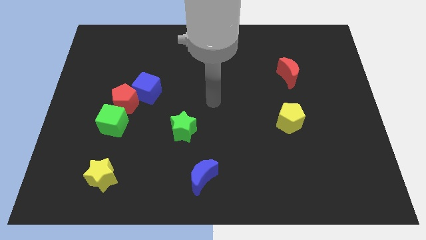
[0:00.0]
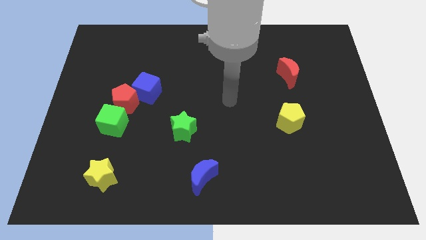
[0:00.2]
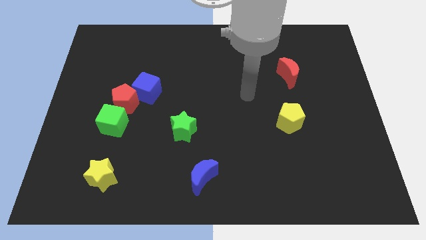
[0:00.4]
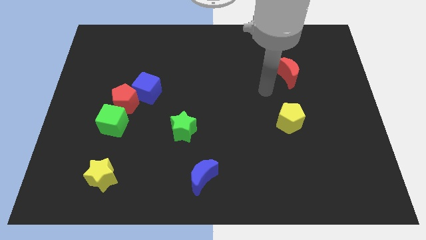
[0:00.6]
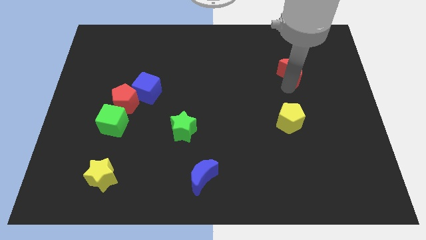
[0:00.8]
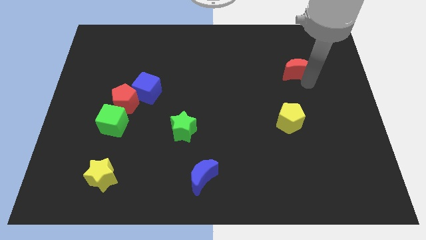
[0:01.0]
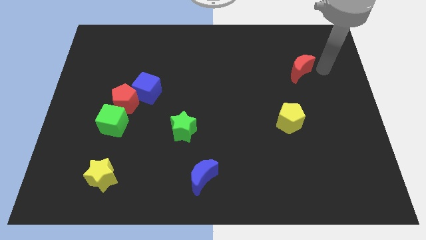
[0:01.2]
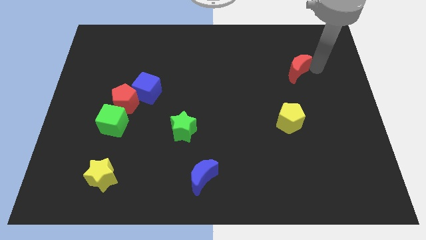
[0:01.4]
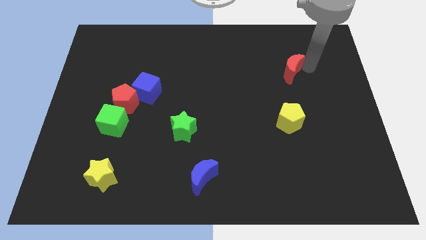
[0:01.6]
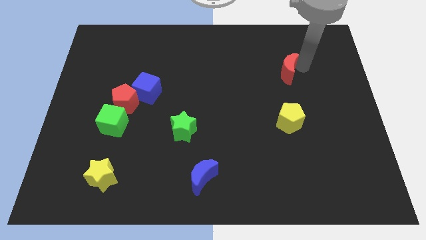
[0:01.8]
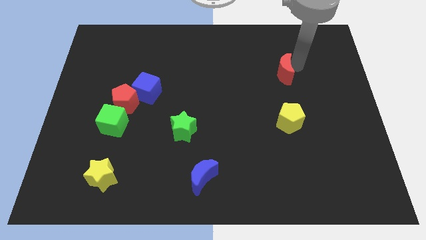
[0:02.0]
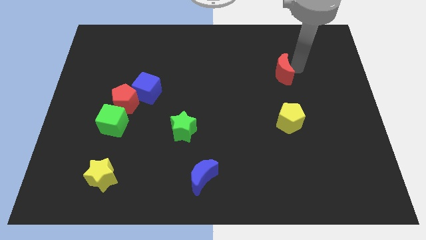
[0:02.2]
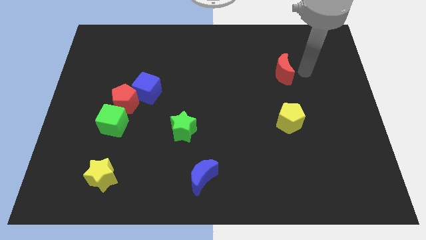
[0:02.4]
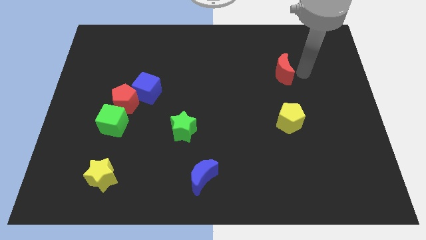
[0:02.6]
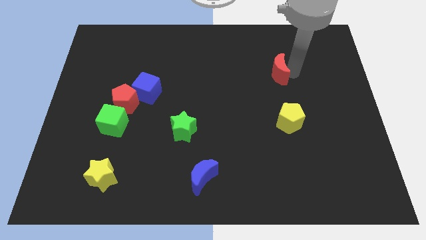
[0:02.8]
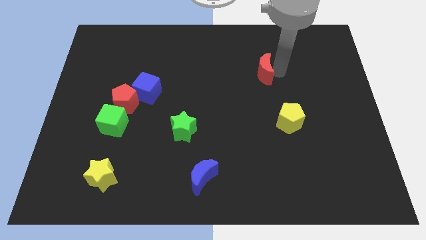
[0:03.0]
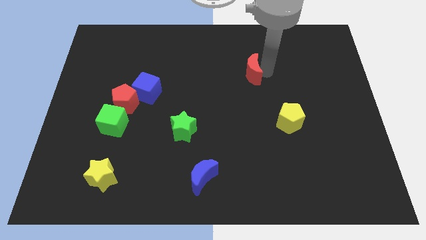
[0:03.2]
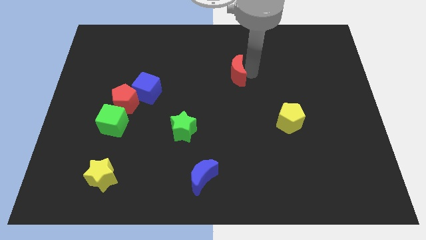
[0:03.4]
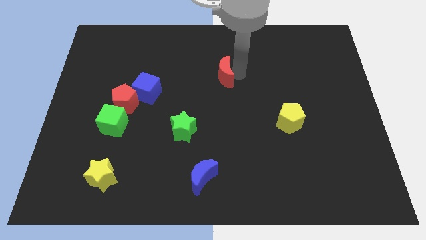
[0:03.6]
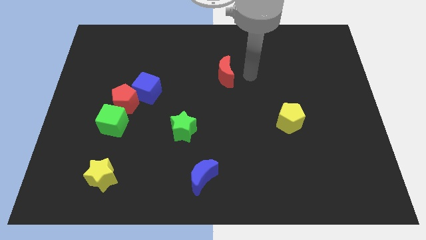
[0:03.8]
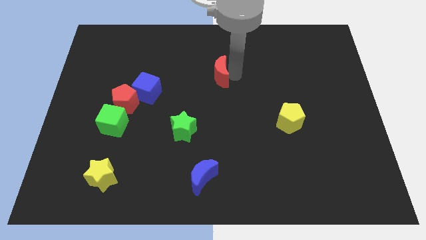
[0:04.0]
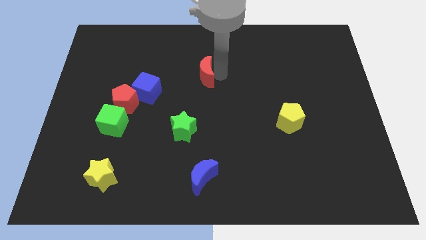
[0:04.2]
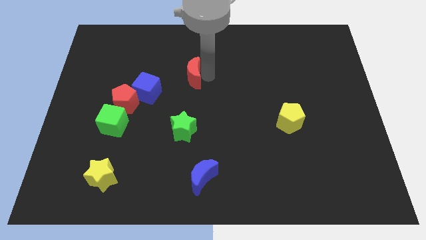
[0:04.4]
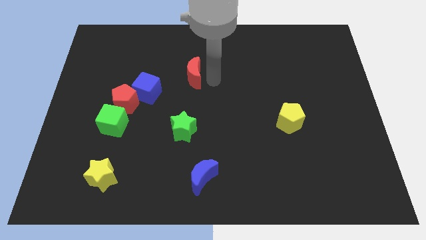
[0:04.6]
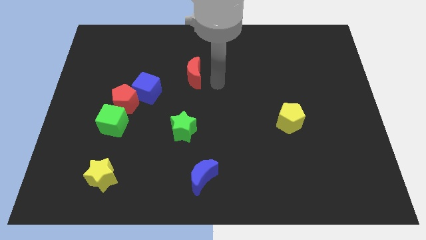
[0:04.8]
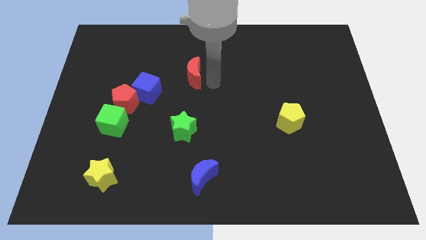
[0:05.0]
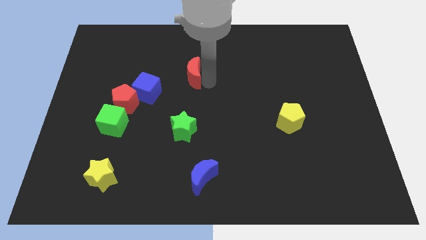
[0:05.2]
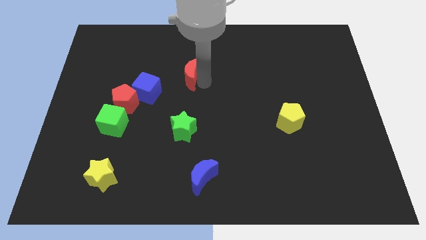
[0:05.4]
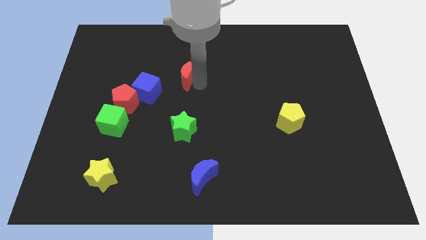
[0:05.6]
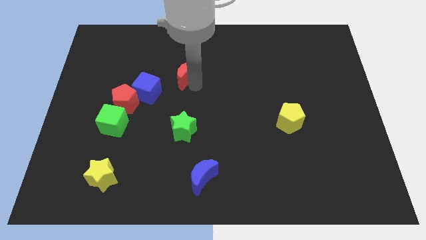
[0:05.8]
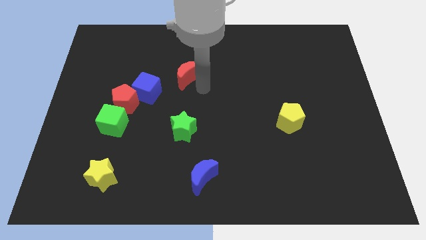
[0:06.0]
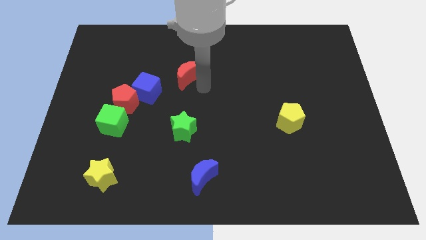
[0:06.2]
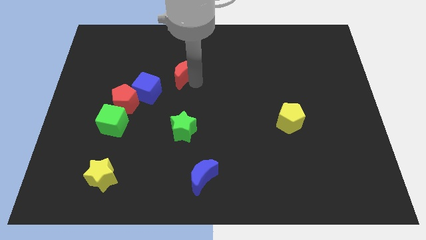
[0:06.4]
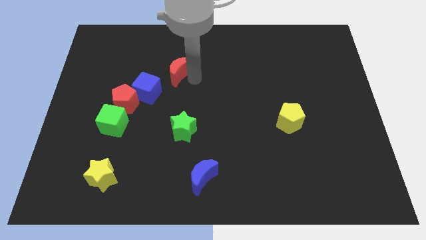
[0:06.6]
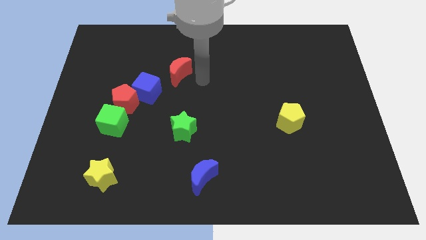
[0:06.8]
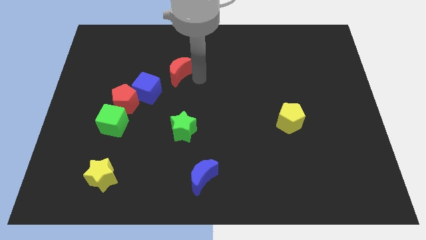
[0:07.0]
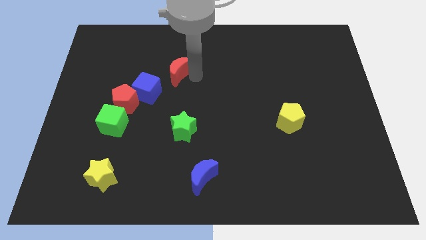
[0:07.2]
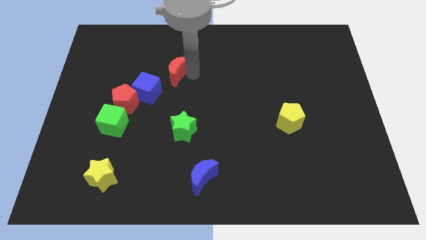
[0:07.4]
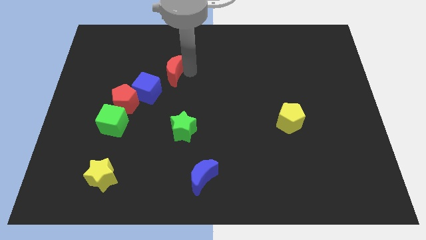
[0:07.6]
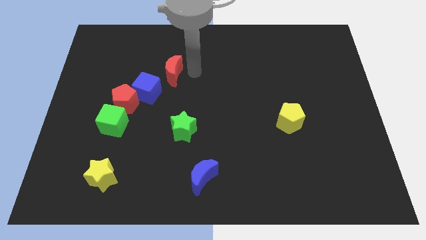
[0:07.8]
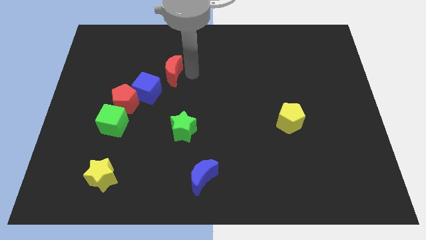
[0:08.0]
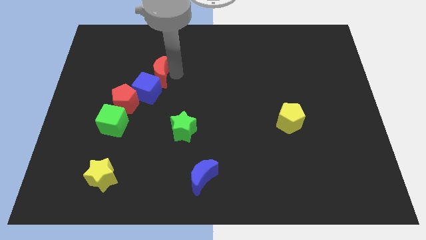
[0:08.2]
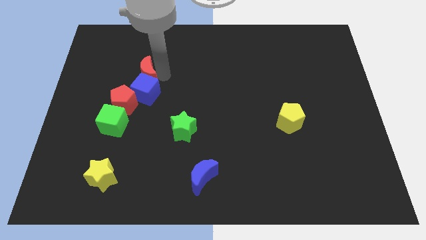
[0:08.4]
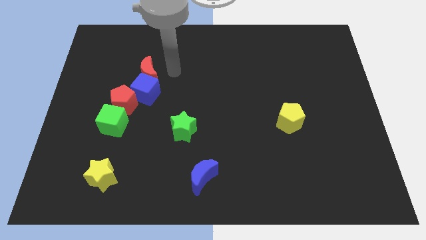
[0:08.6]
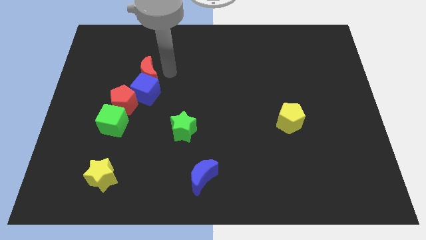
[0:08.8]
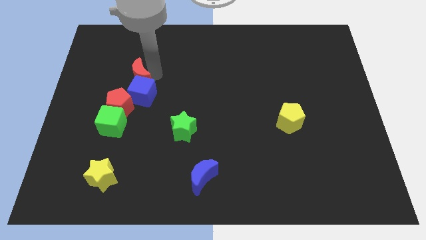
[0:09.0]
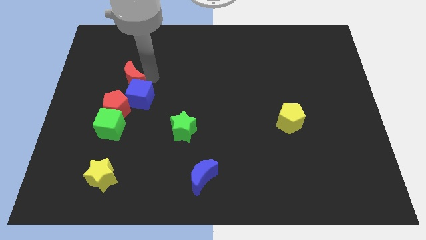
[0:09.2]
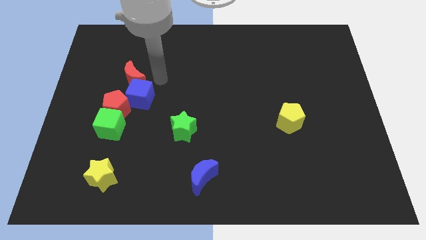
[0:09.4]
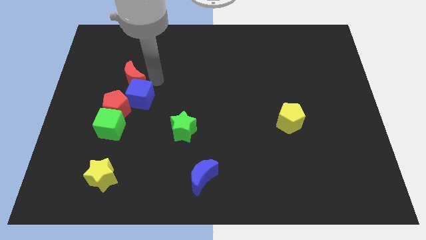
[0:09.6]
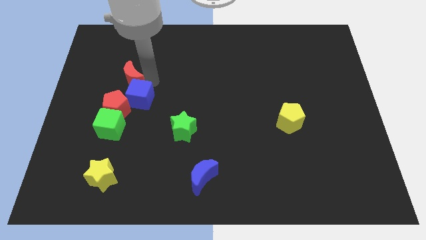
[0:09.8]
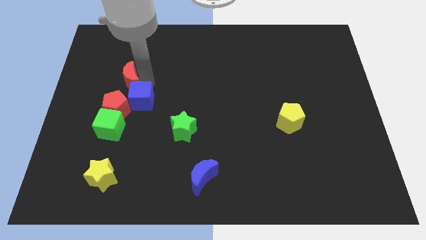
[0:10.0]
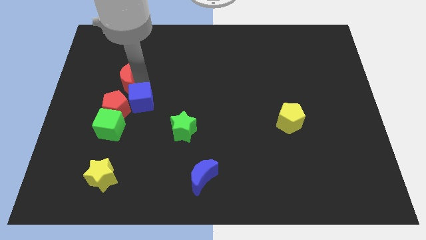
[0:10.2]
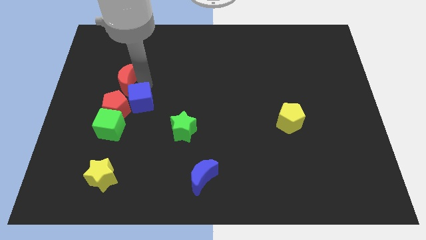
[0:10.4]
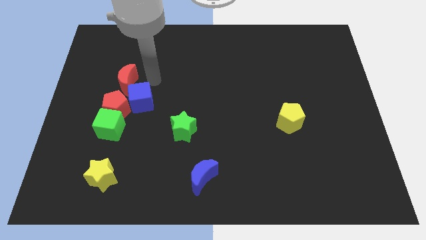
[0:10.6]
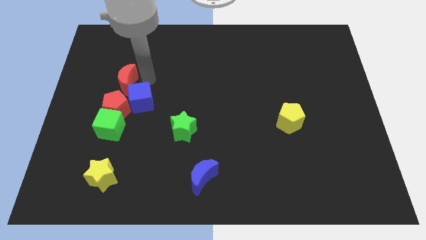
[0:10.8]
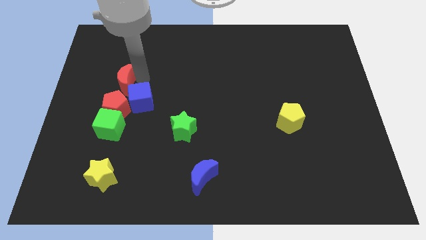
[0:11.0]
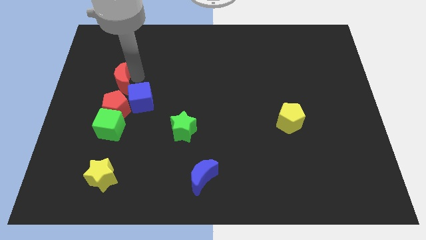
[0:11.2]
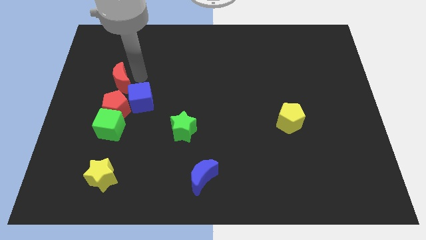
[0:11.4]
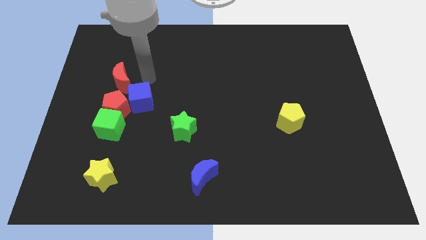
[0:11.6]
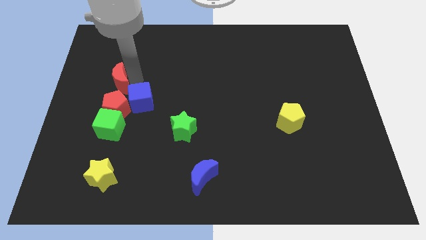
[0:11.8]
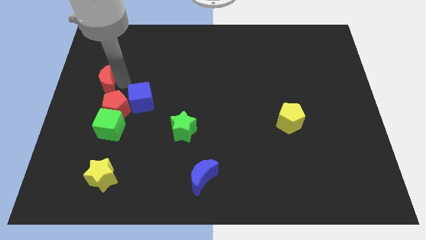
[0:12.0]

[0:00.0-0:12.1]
move the red moon to the center left
